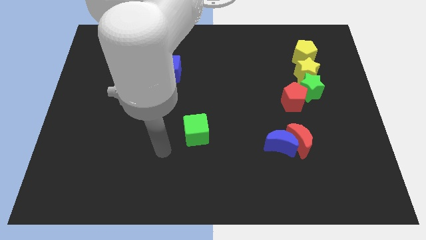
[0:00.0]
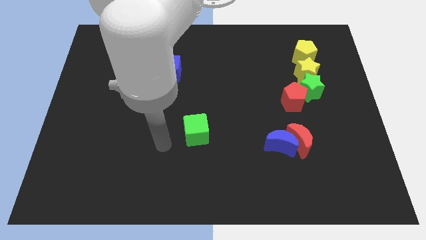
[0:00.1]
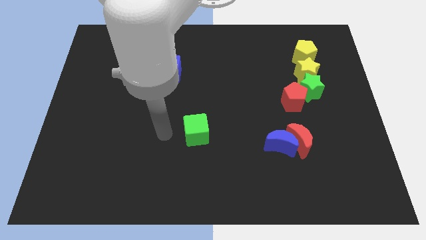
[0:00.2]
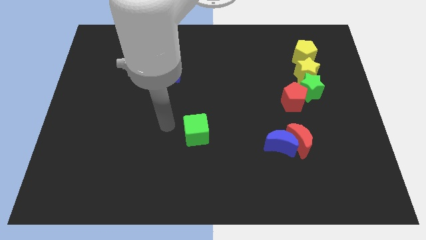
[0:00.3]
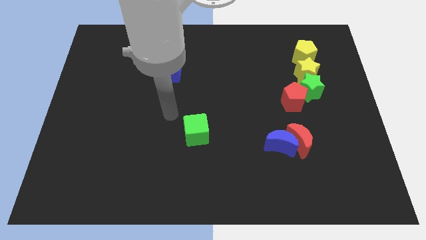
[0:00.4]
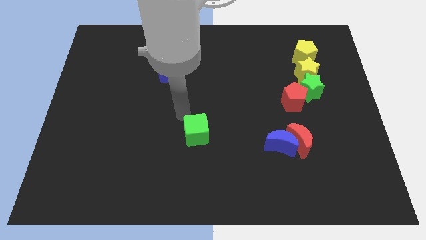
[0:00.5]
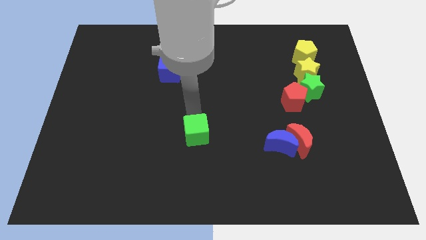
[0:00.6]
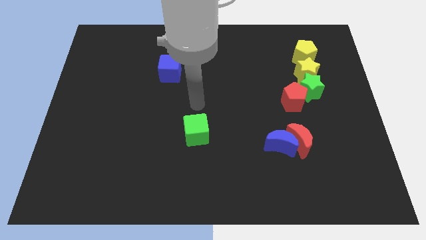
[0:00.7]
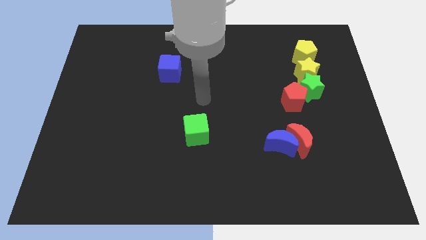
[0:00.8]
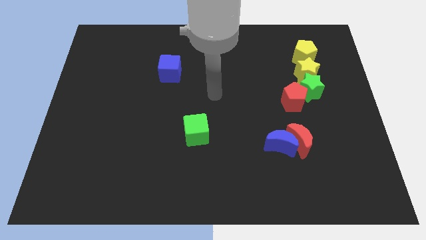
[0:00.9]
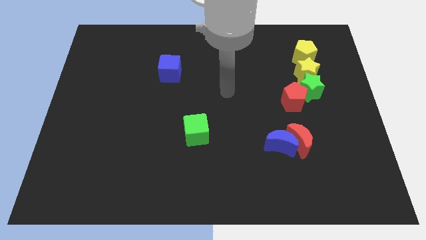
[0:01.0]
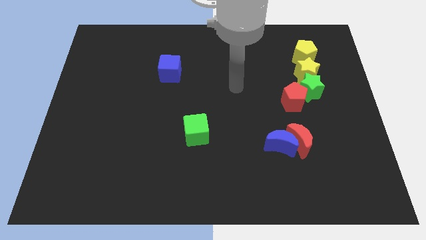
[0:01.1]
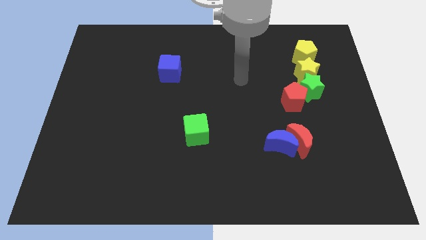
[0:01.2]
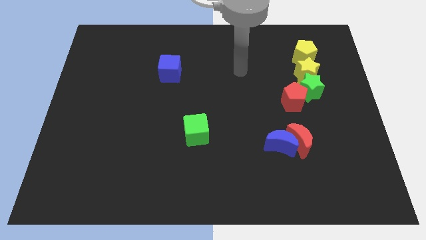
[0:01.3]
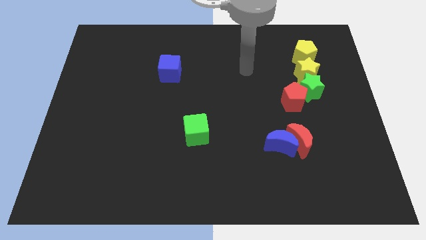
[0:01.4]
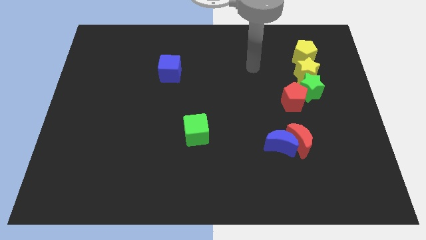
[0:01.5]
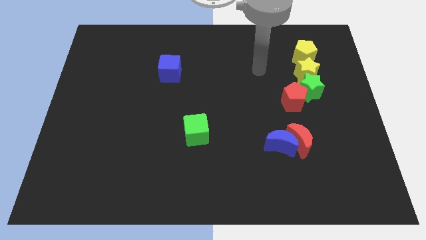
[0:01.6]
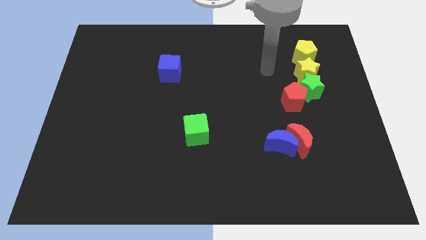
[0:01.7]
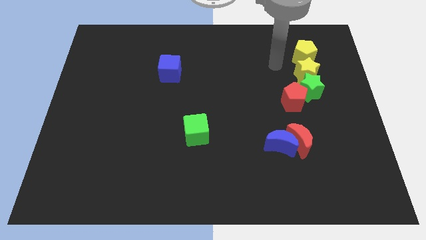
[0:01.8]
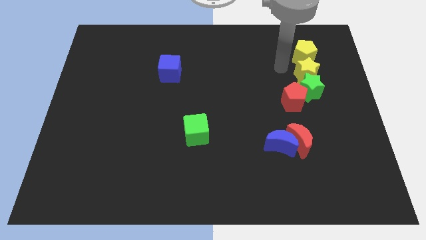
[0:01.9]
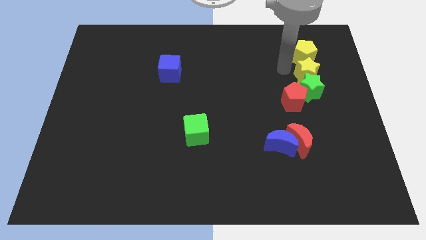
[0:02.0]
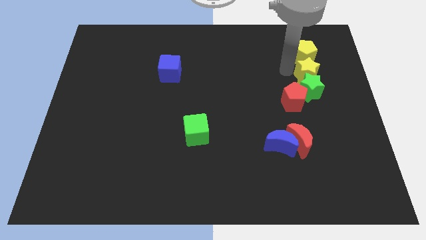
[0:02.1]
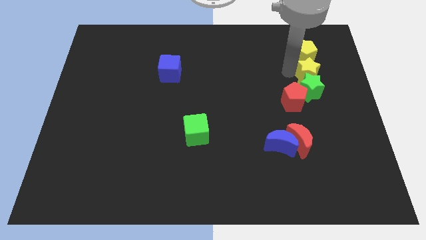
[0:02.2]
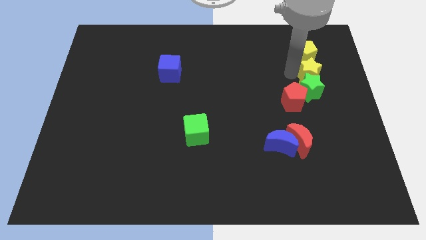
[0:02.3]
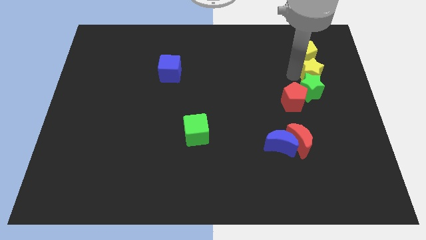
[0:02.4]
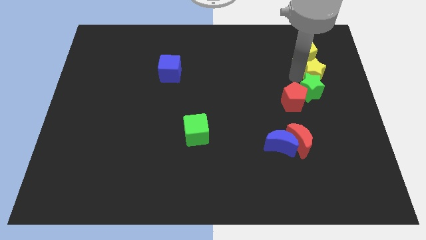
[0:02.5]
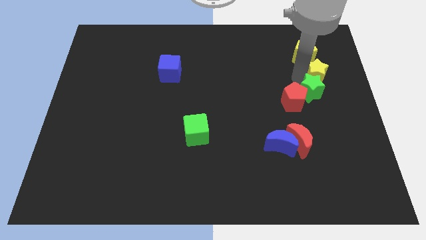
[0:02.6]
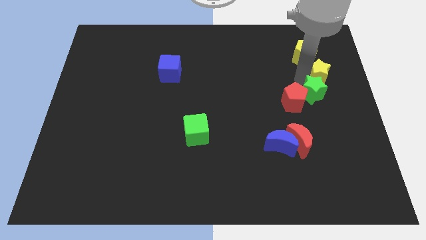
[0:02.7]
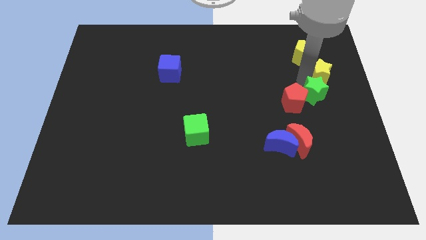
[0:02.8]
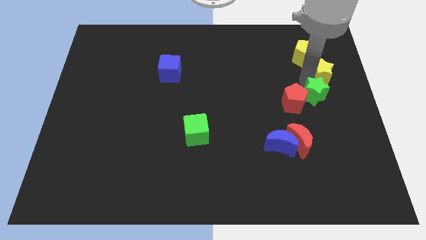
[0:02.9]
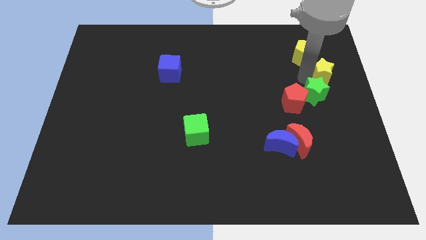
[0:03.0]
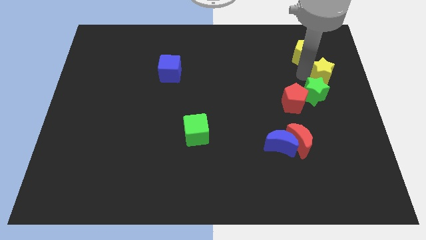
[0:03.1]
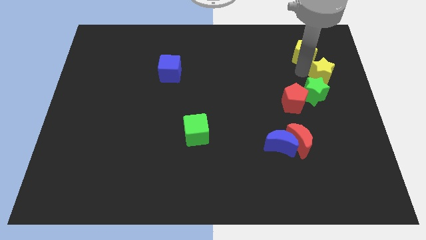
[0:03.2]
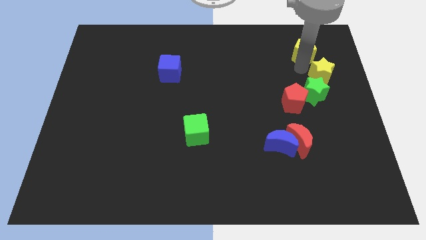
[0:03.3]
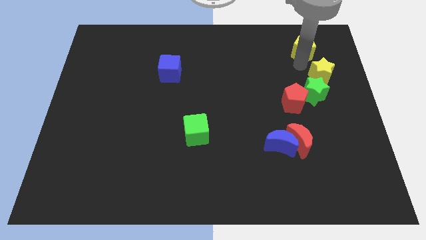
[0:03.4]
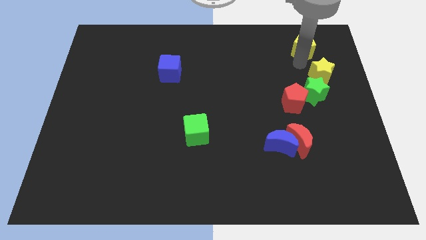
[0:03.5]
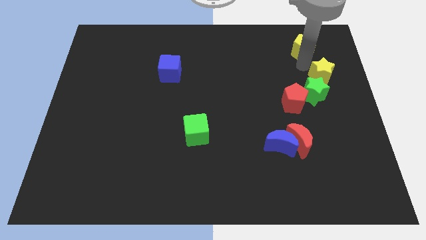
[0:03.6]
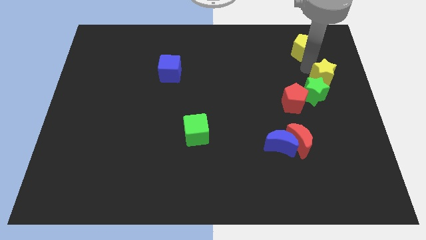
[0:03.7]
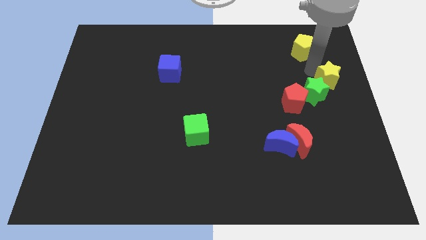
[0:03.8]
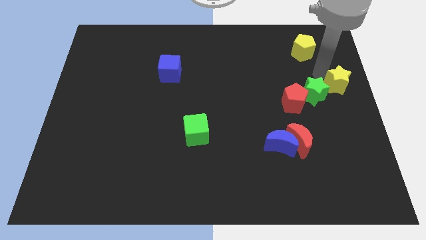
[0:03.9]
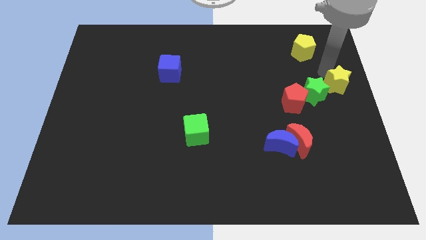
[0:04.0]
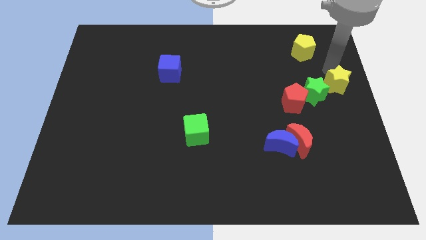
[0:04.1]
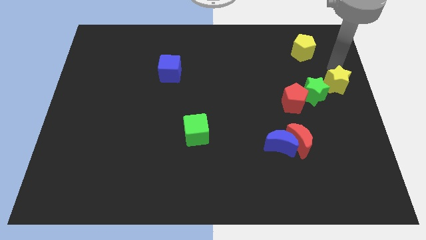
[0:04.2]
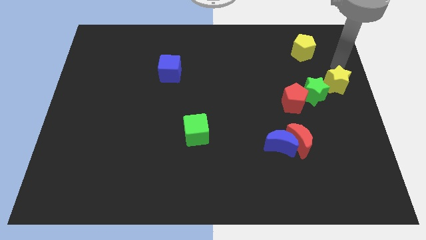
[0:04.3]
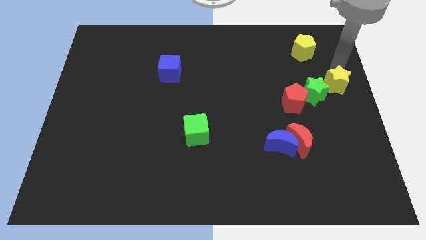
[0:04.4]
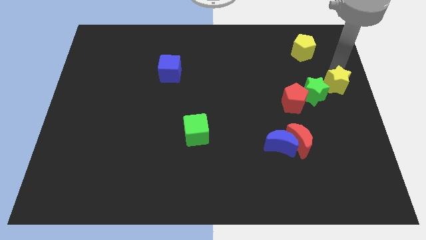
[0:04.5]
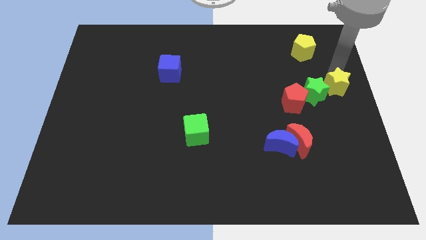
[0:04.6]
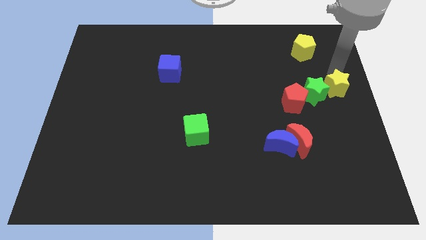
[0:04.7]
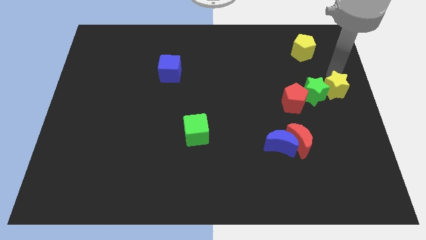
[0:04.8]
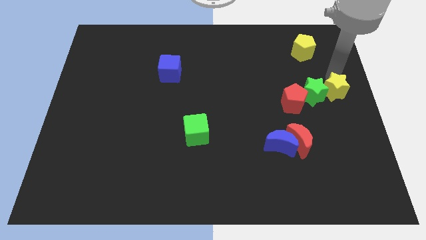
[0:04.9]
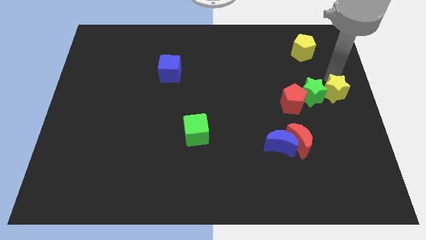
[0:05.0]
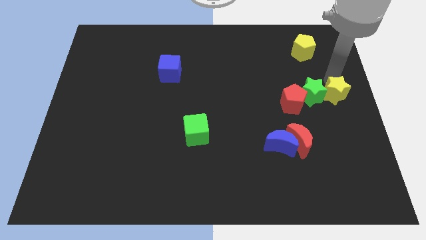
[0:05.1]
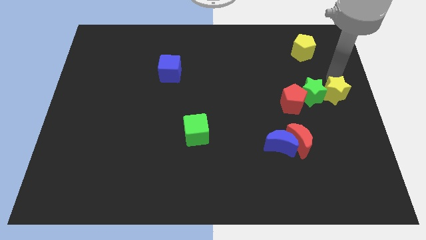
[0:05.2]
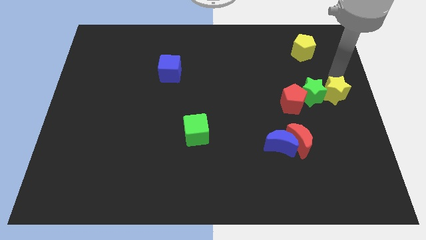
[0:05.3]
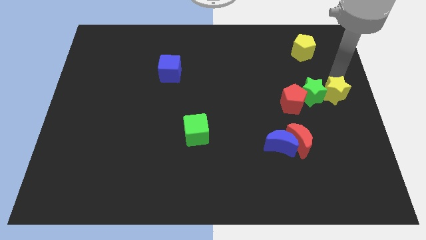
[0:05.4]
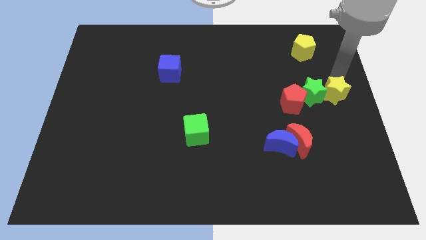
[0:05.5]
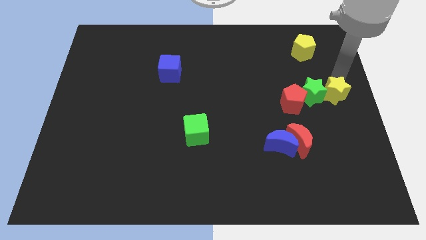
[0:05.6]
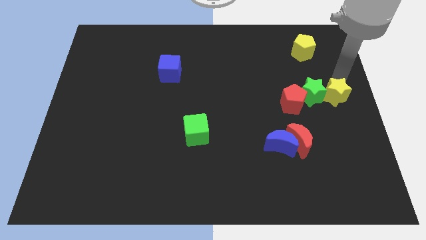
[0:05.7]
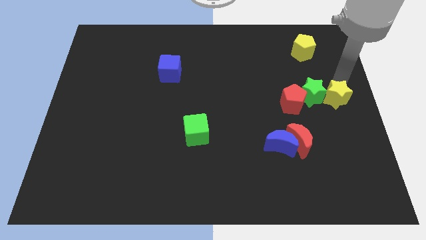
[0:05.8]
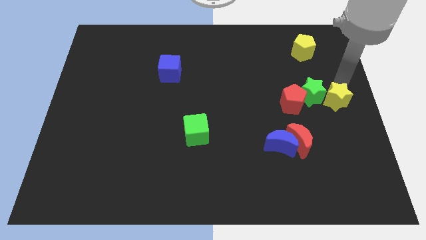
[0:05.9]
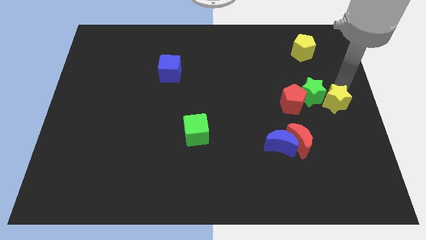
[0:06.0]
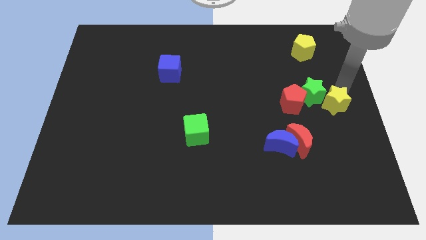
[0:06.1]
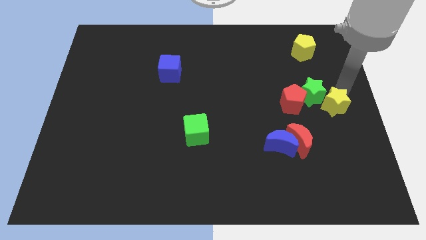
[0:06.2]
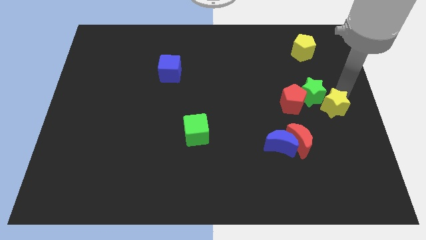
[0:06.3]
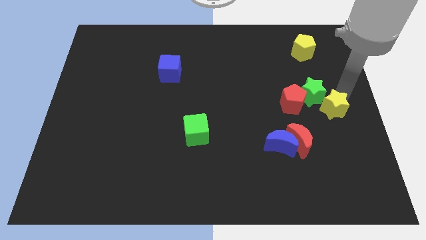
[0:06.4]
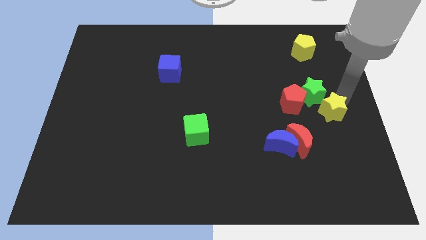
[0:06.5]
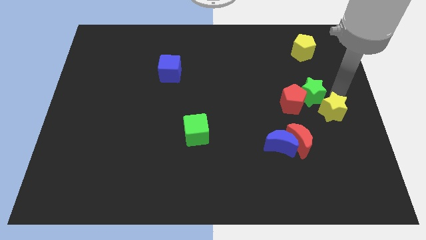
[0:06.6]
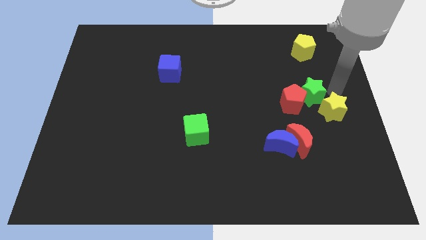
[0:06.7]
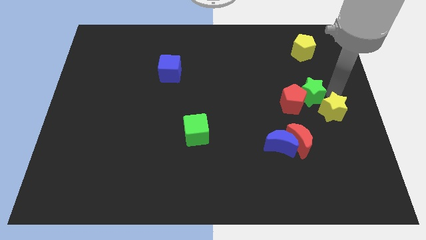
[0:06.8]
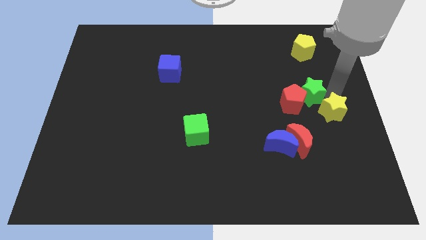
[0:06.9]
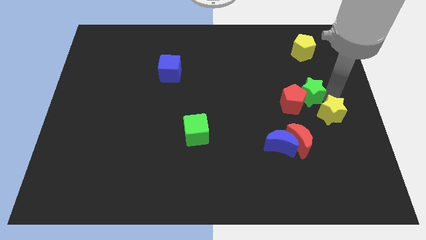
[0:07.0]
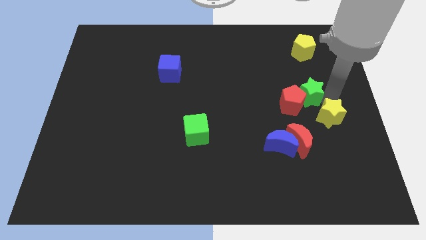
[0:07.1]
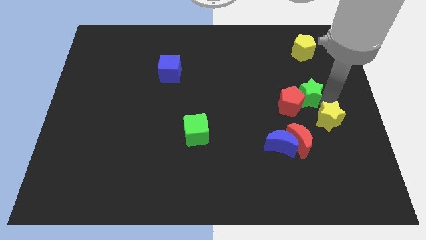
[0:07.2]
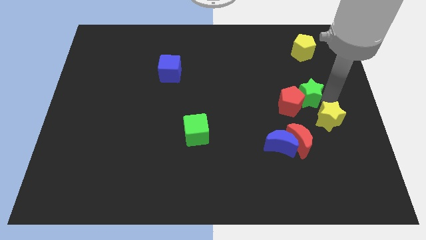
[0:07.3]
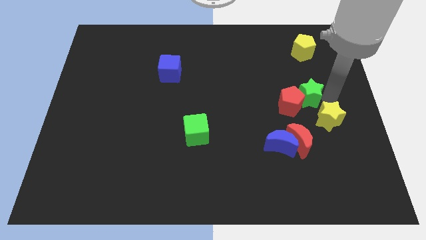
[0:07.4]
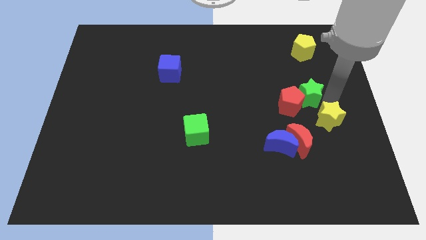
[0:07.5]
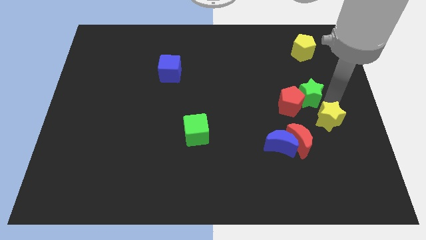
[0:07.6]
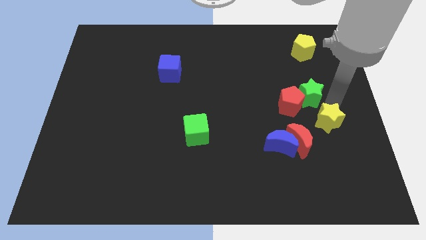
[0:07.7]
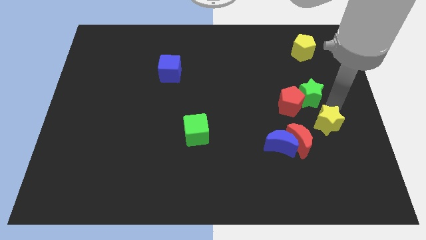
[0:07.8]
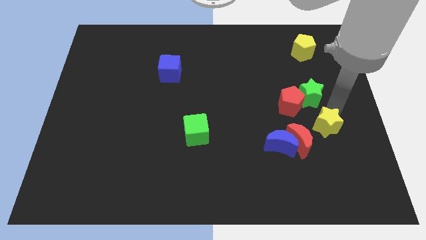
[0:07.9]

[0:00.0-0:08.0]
move the yellow star right of the blue moon
